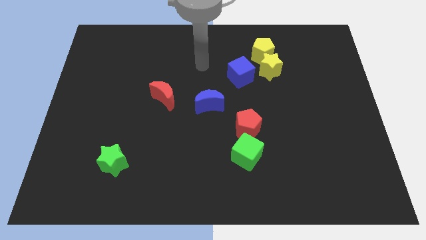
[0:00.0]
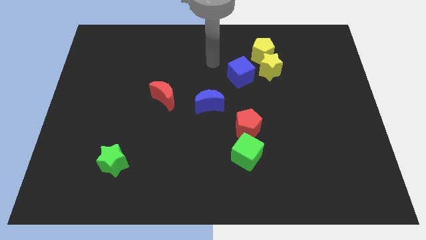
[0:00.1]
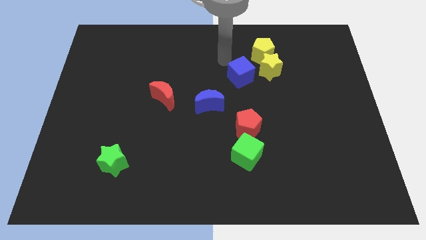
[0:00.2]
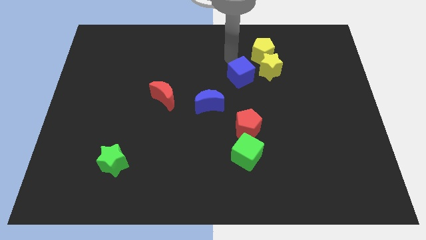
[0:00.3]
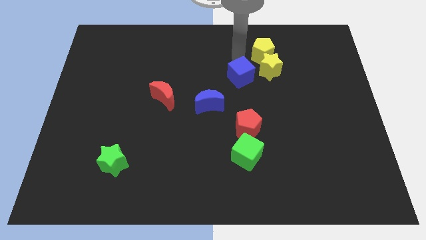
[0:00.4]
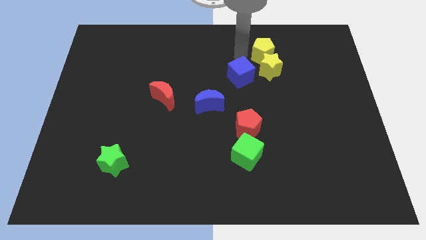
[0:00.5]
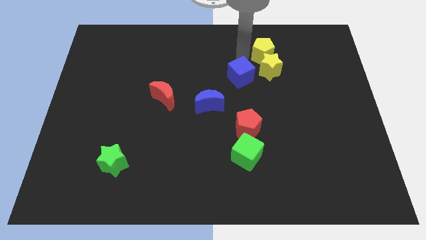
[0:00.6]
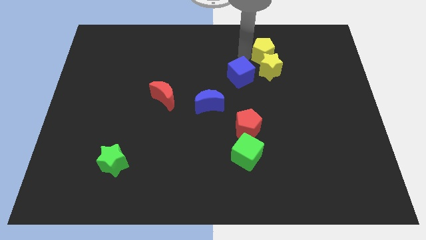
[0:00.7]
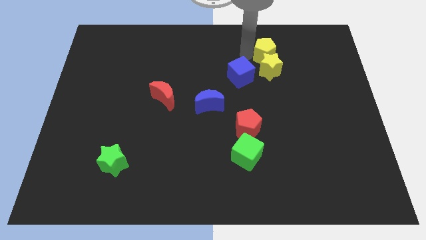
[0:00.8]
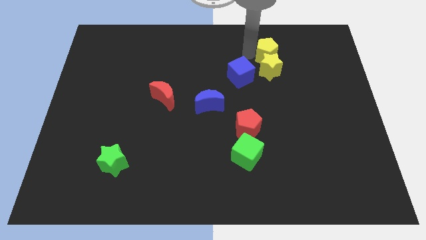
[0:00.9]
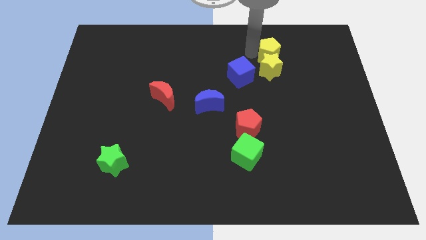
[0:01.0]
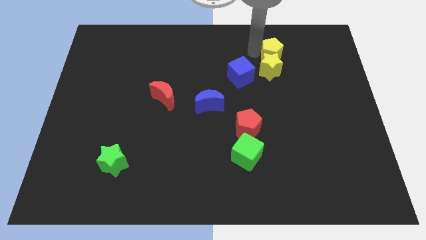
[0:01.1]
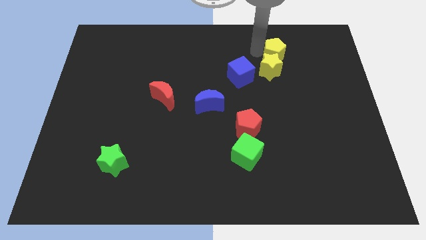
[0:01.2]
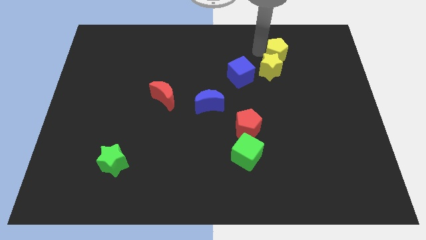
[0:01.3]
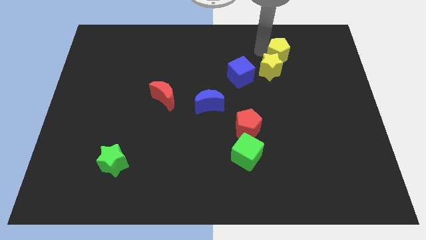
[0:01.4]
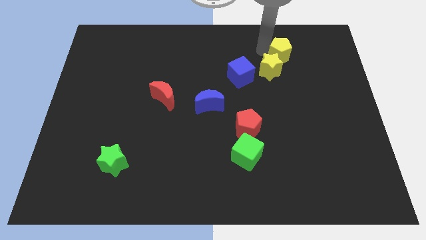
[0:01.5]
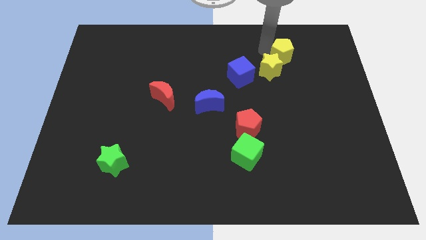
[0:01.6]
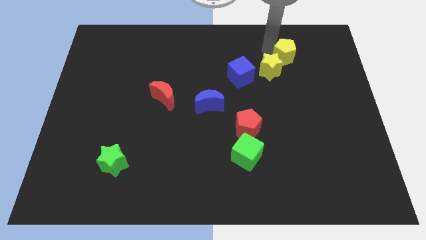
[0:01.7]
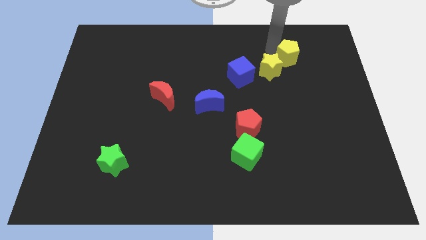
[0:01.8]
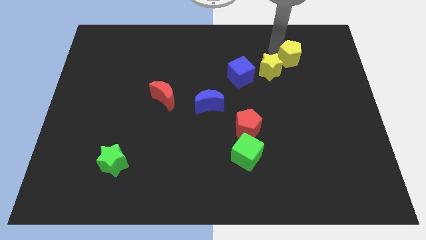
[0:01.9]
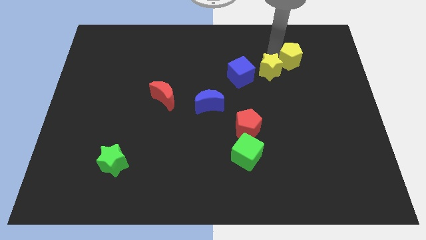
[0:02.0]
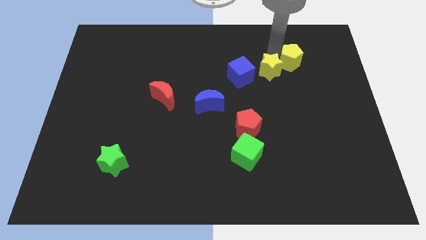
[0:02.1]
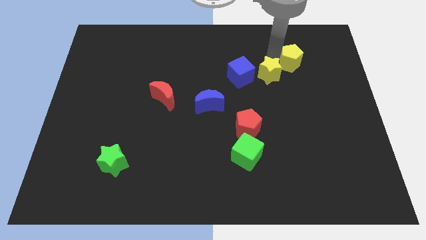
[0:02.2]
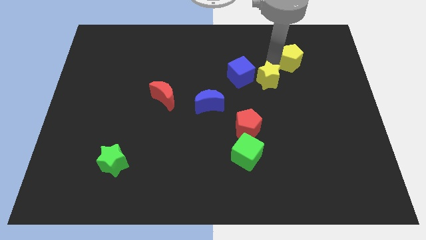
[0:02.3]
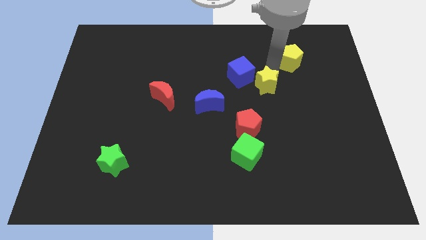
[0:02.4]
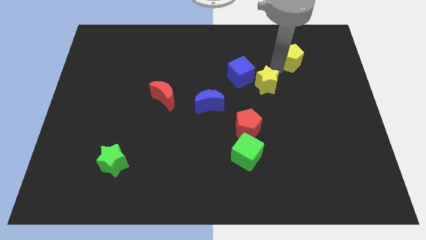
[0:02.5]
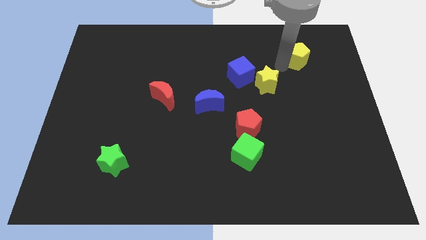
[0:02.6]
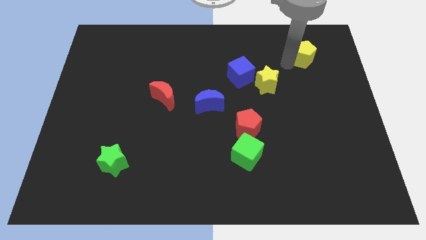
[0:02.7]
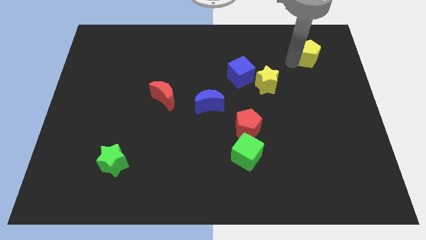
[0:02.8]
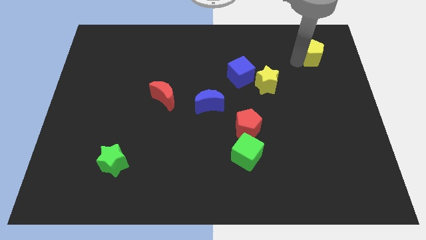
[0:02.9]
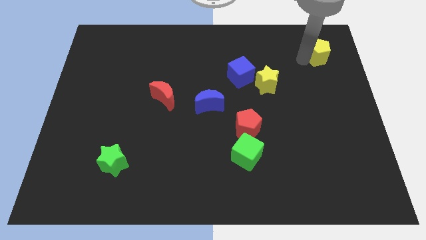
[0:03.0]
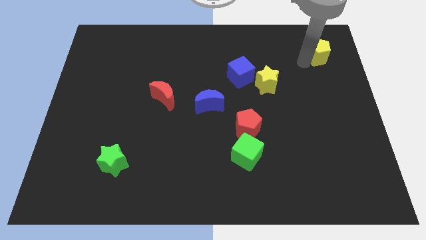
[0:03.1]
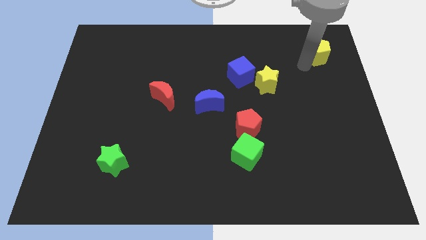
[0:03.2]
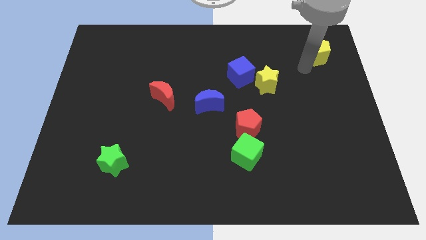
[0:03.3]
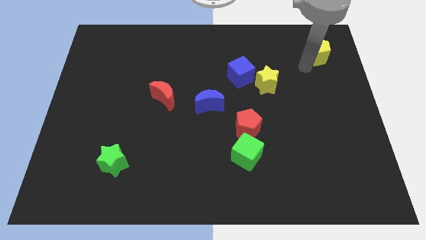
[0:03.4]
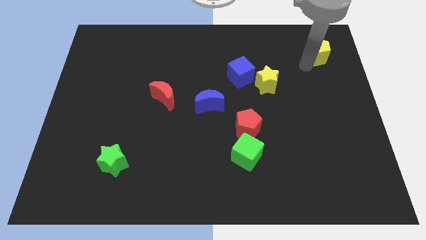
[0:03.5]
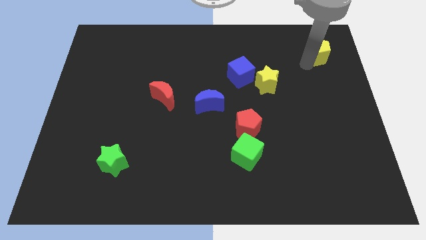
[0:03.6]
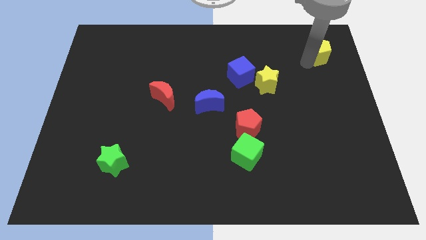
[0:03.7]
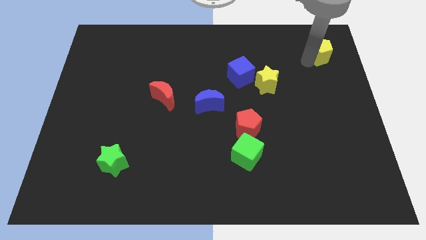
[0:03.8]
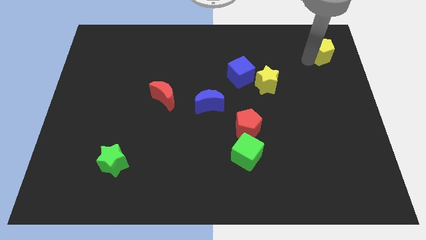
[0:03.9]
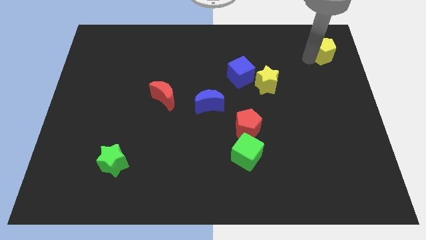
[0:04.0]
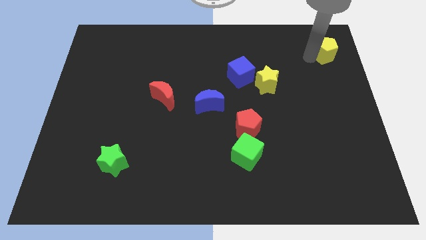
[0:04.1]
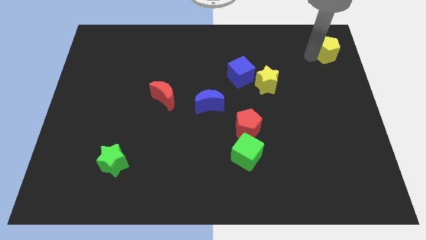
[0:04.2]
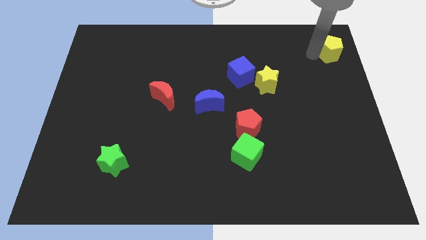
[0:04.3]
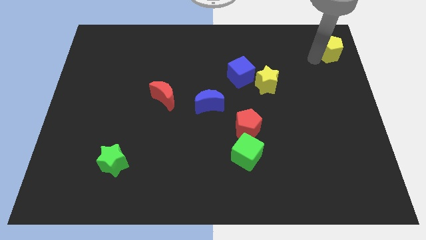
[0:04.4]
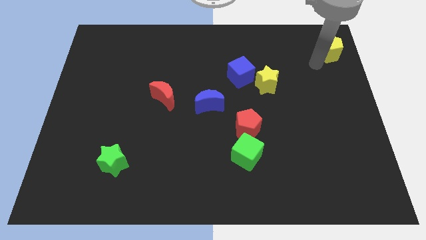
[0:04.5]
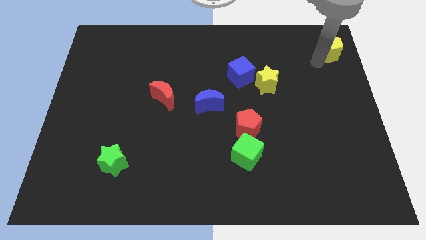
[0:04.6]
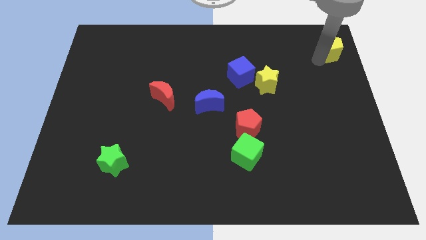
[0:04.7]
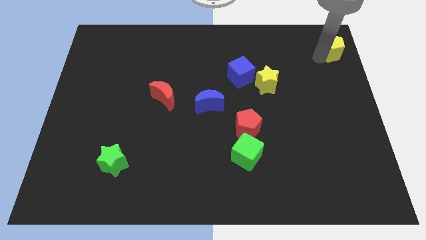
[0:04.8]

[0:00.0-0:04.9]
push the yellow pentagon to the top right of the board

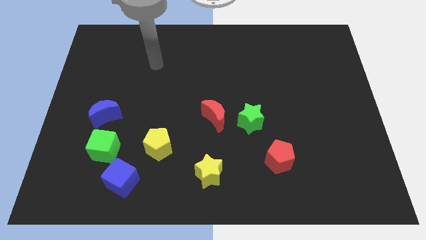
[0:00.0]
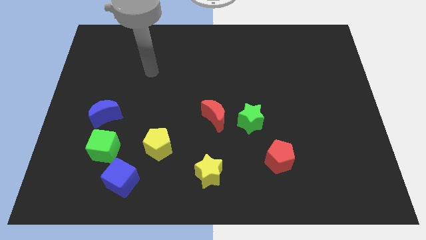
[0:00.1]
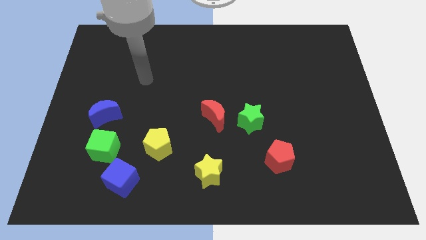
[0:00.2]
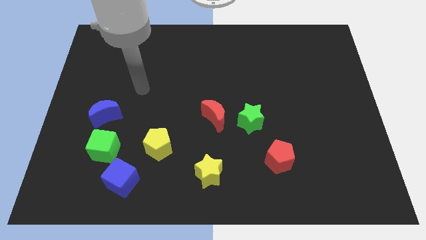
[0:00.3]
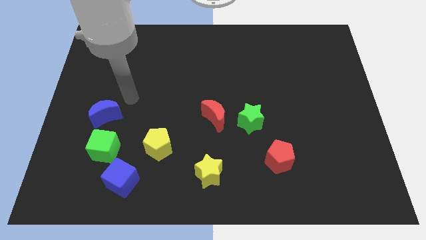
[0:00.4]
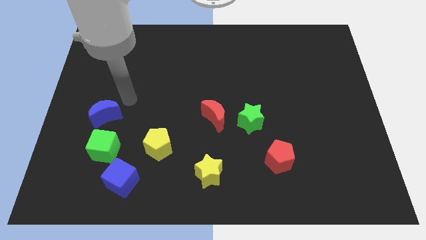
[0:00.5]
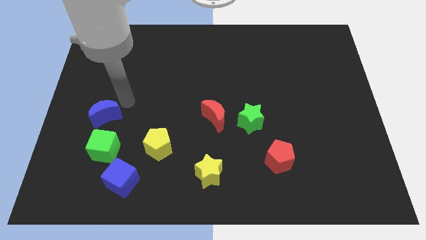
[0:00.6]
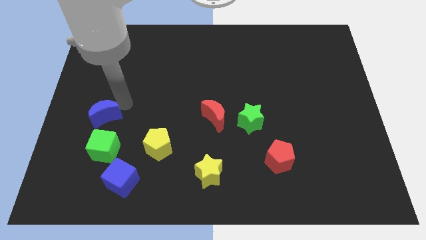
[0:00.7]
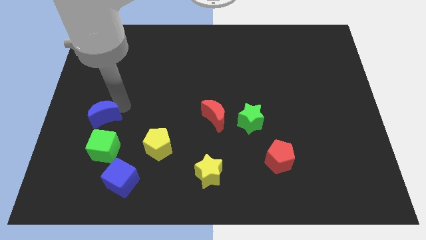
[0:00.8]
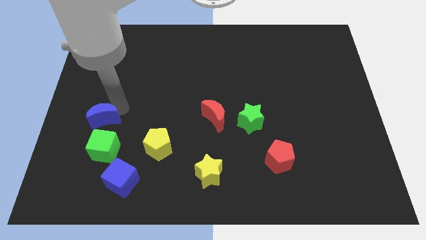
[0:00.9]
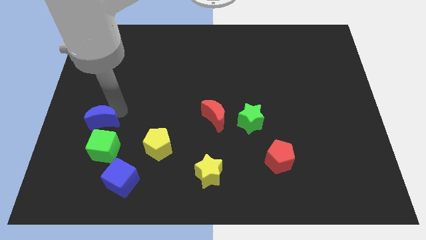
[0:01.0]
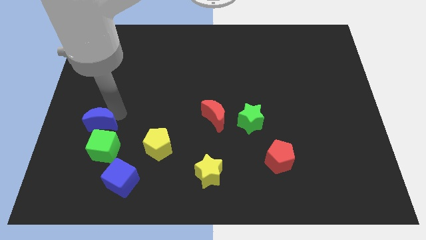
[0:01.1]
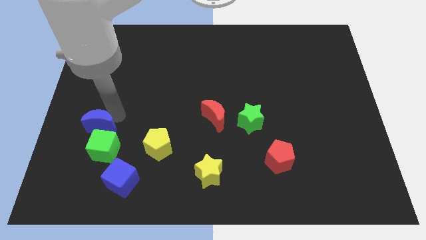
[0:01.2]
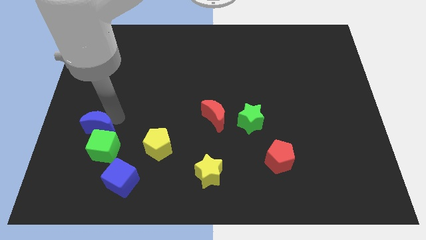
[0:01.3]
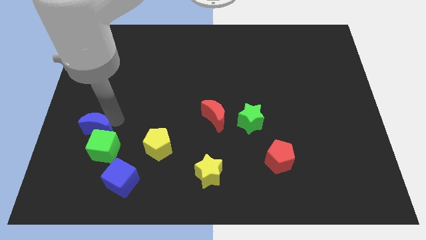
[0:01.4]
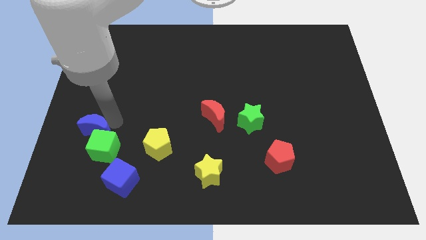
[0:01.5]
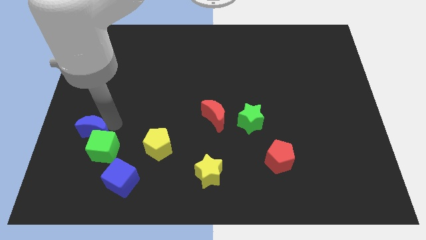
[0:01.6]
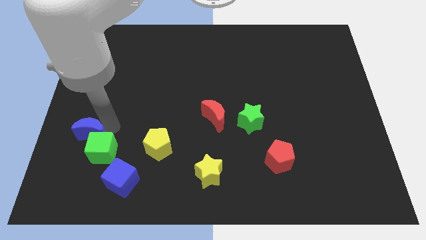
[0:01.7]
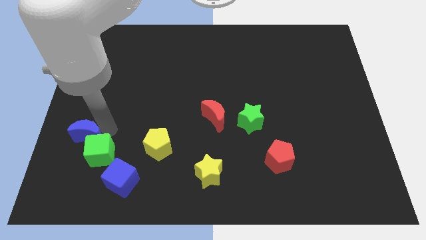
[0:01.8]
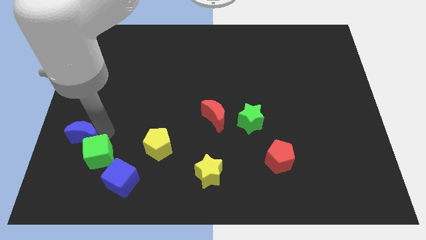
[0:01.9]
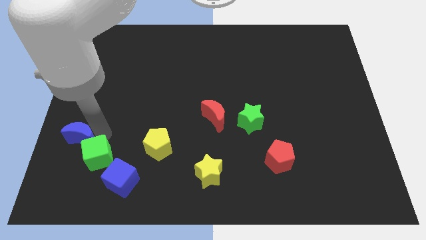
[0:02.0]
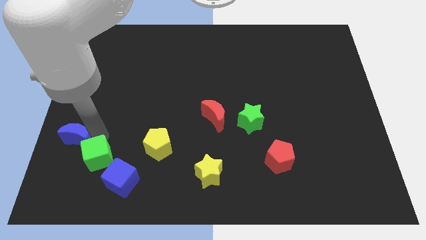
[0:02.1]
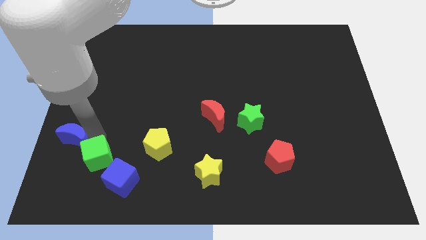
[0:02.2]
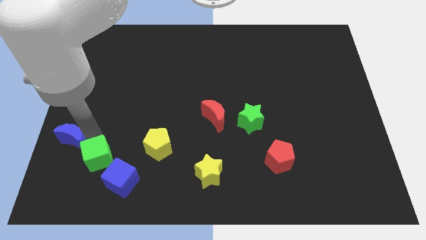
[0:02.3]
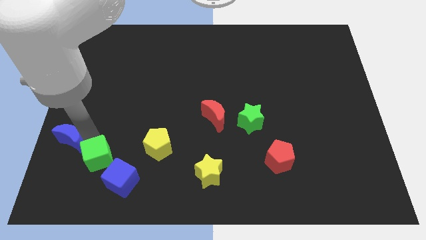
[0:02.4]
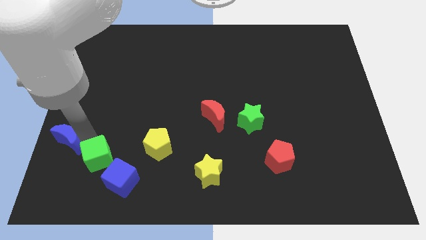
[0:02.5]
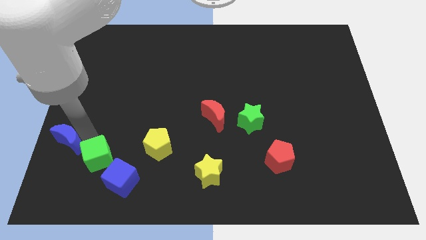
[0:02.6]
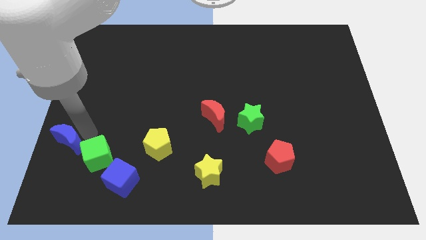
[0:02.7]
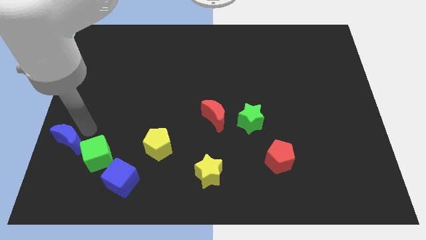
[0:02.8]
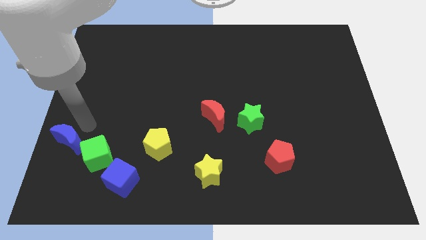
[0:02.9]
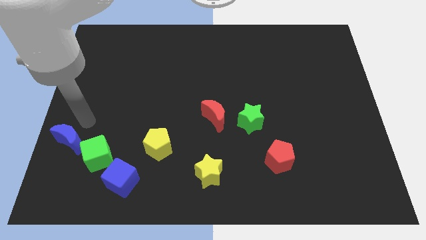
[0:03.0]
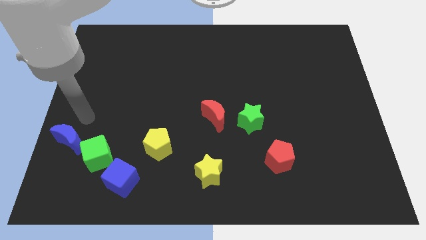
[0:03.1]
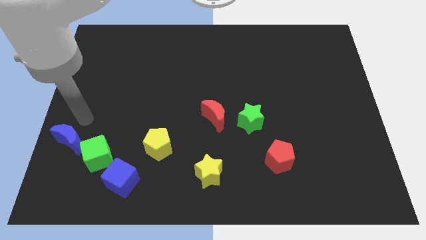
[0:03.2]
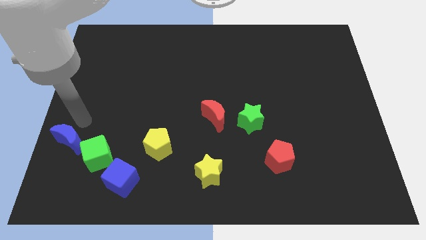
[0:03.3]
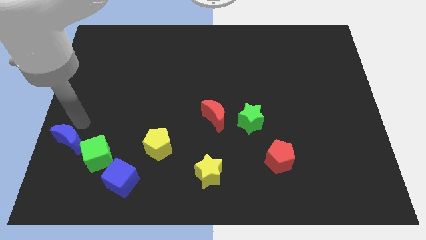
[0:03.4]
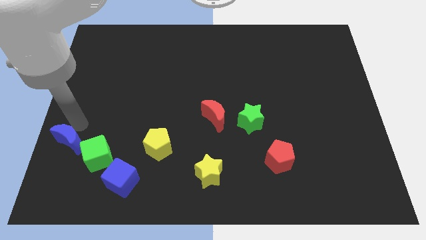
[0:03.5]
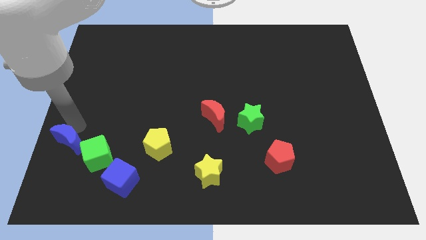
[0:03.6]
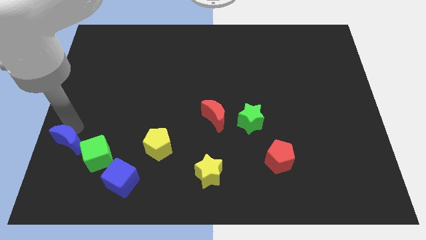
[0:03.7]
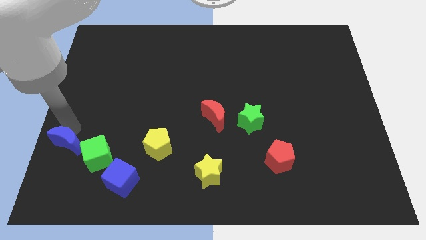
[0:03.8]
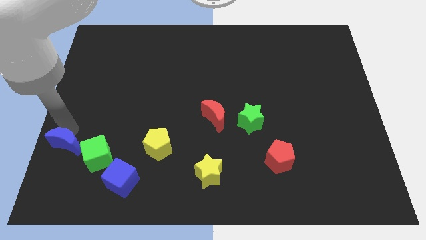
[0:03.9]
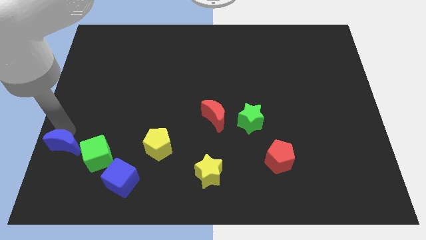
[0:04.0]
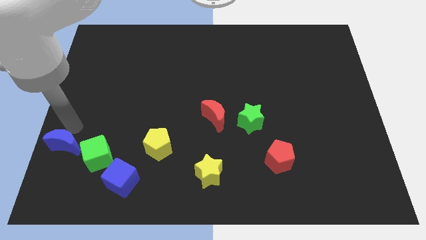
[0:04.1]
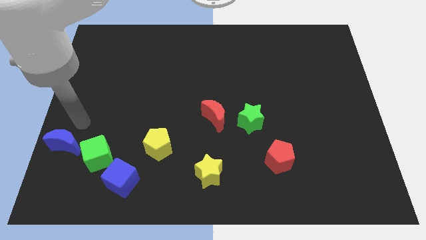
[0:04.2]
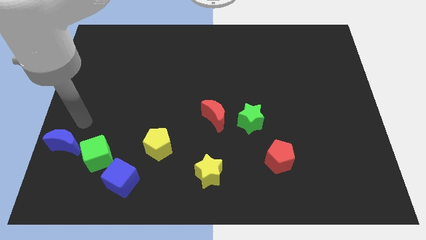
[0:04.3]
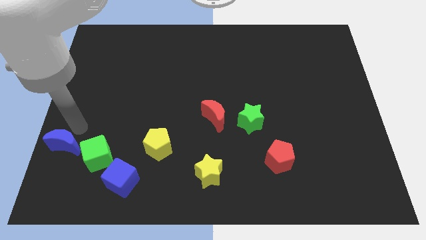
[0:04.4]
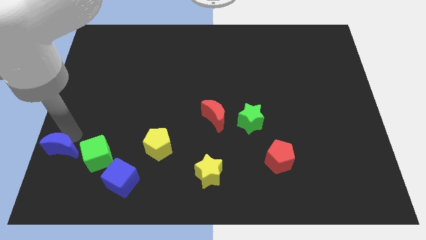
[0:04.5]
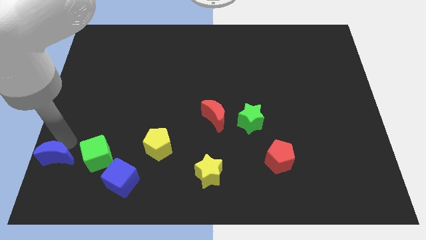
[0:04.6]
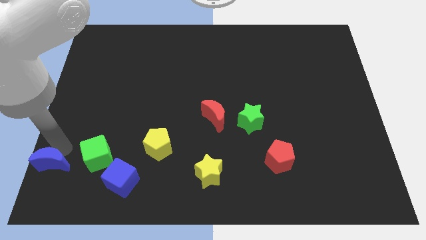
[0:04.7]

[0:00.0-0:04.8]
put the blue moon to the bottom left
